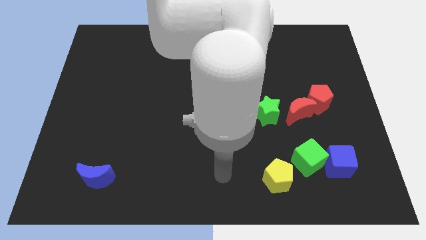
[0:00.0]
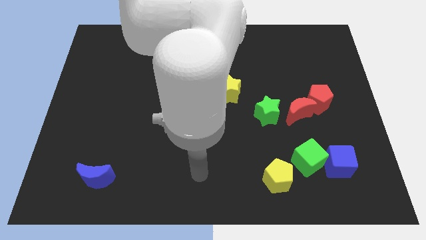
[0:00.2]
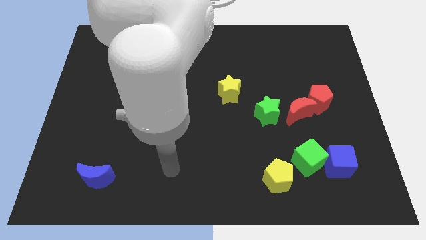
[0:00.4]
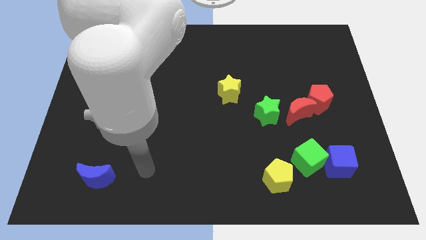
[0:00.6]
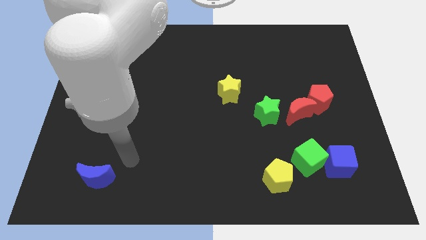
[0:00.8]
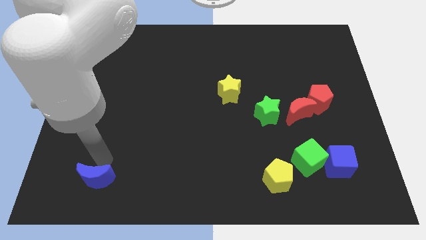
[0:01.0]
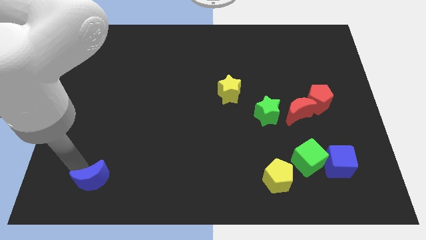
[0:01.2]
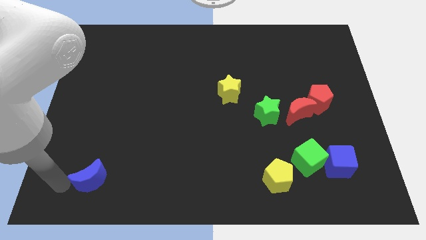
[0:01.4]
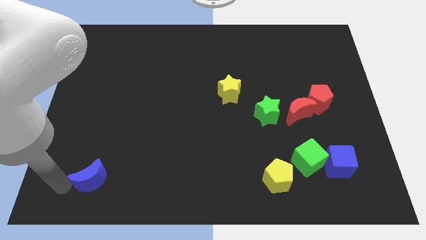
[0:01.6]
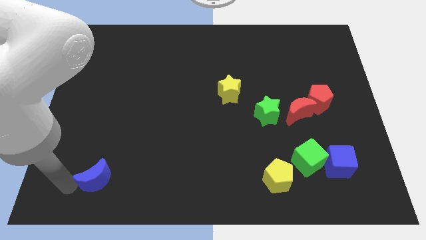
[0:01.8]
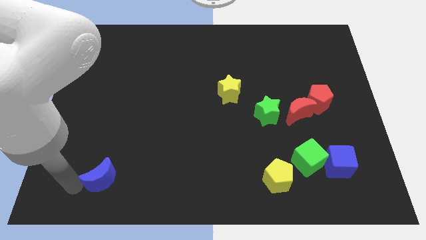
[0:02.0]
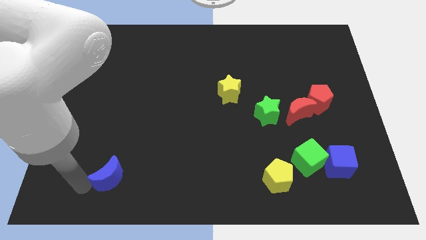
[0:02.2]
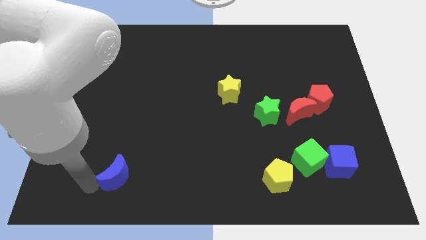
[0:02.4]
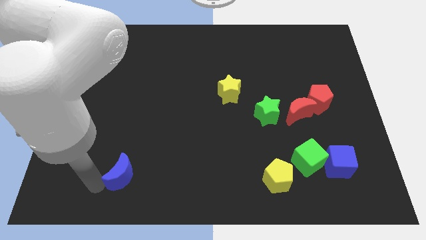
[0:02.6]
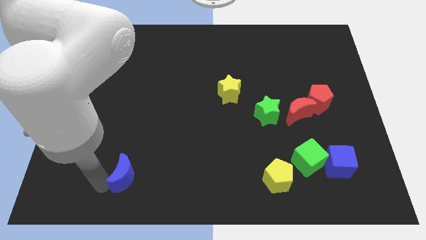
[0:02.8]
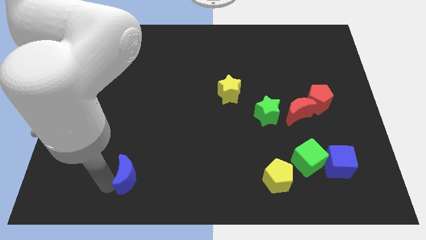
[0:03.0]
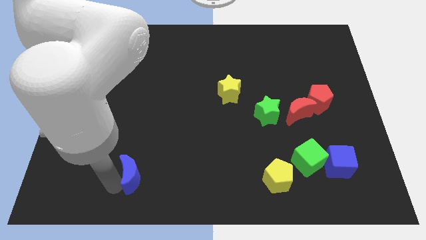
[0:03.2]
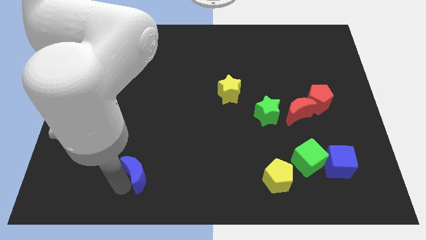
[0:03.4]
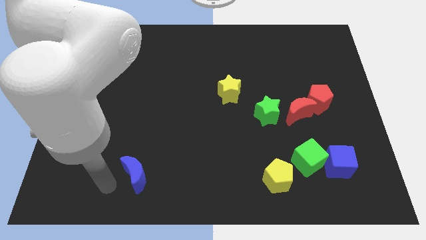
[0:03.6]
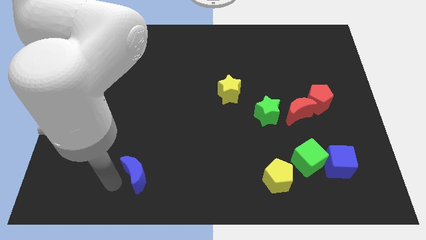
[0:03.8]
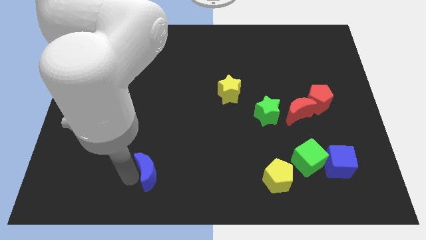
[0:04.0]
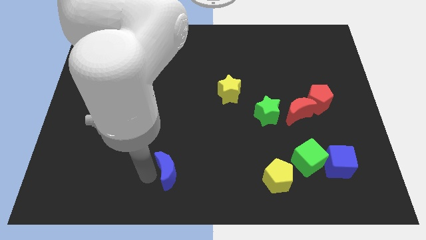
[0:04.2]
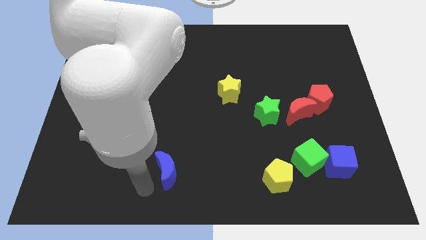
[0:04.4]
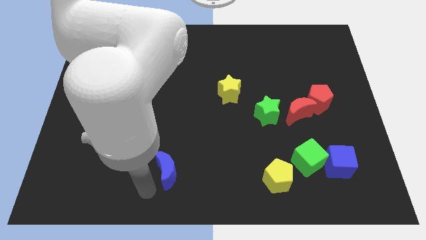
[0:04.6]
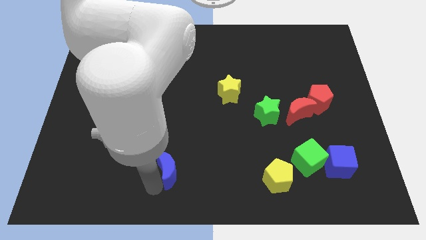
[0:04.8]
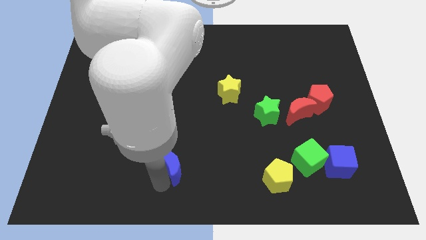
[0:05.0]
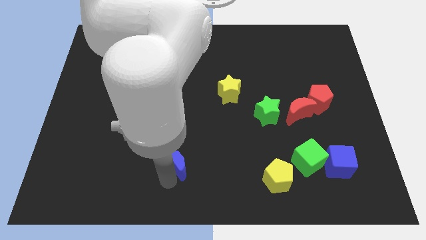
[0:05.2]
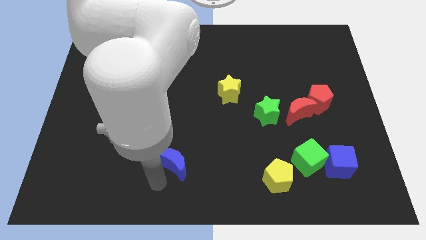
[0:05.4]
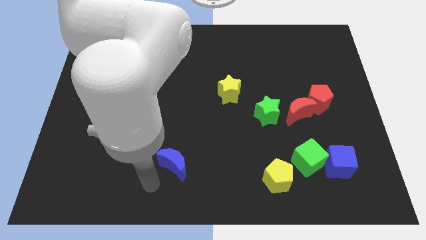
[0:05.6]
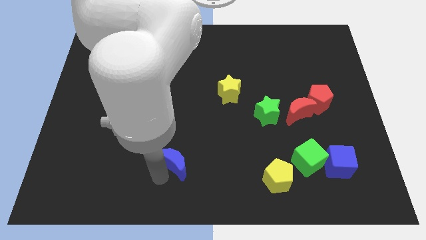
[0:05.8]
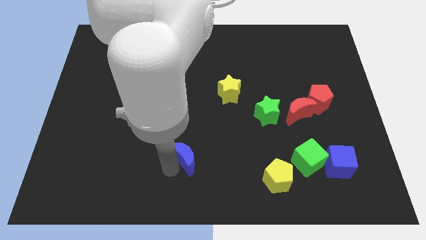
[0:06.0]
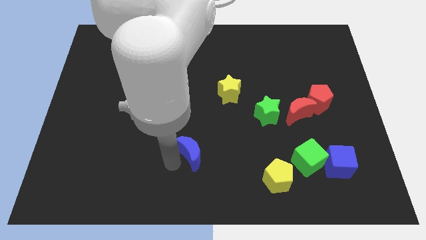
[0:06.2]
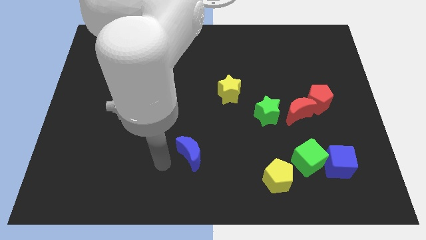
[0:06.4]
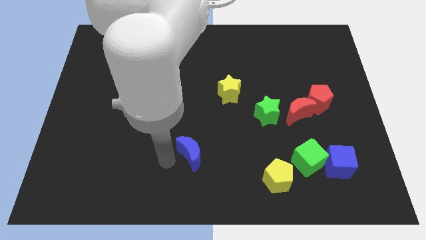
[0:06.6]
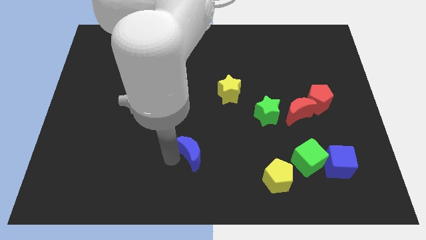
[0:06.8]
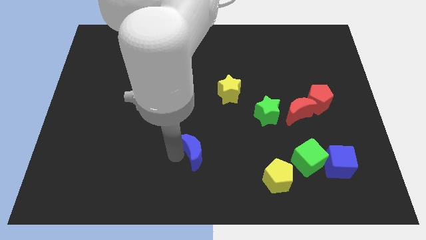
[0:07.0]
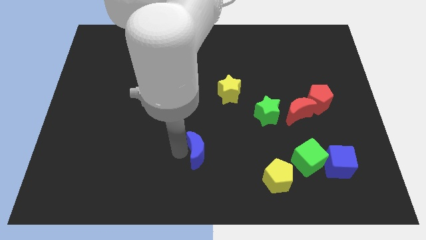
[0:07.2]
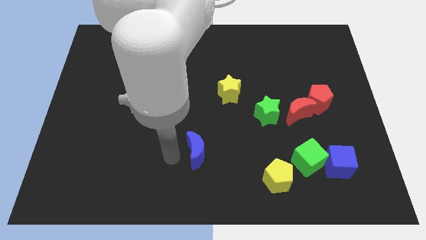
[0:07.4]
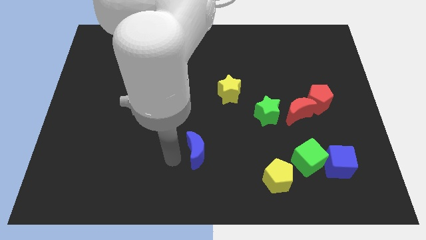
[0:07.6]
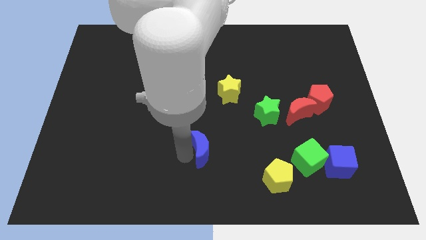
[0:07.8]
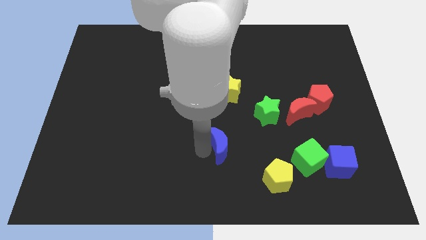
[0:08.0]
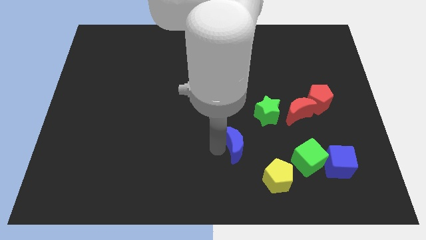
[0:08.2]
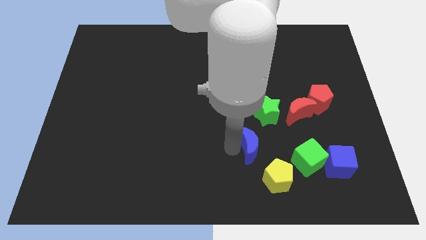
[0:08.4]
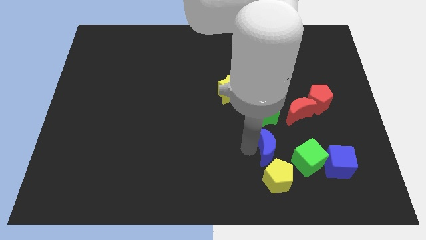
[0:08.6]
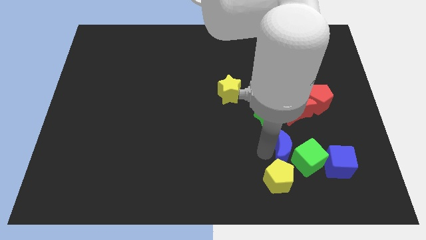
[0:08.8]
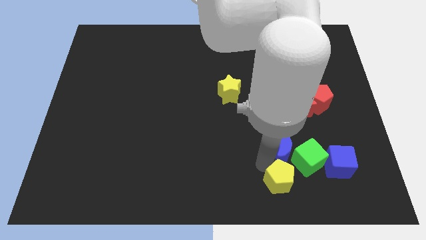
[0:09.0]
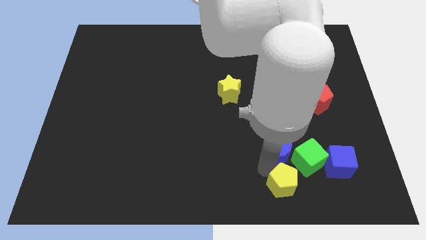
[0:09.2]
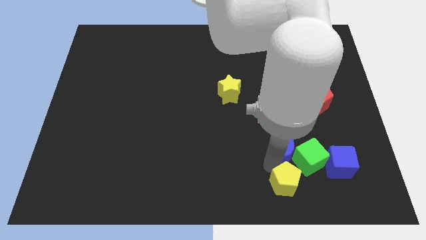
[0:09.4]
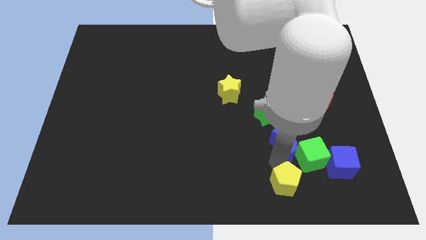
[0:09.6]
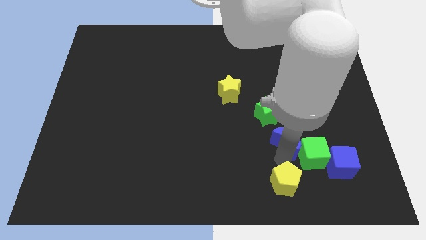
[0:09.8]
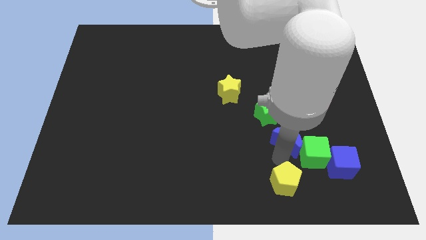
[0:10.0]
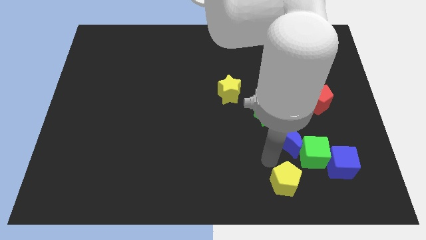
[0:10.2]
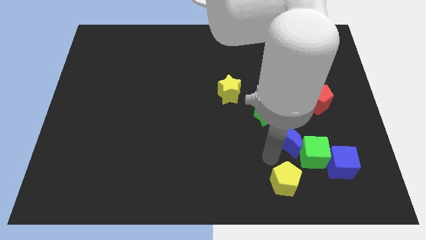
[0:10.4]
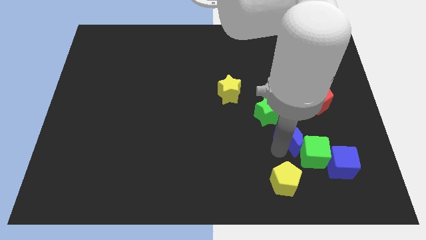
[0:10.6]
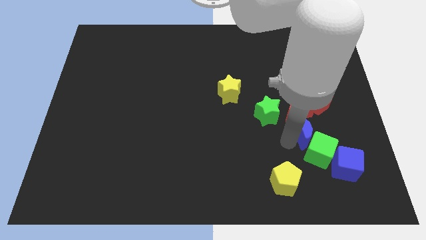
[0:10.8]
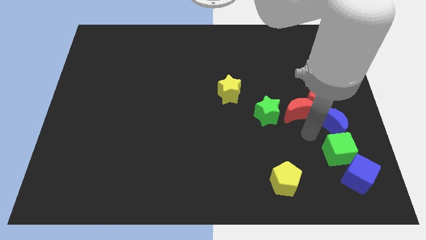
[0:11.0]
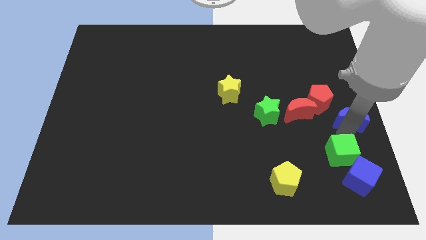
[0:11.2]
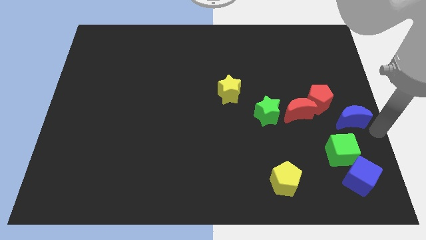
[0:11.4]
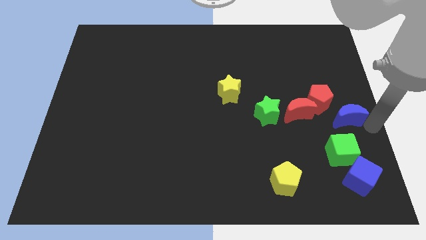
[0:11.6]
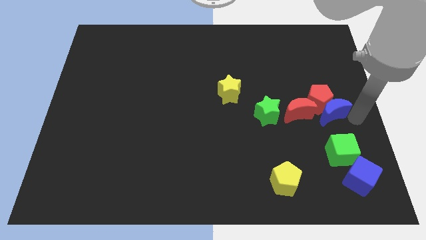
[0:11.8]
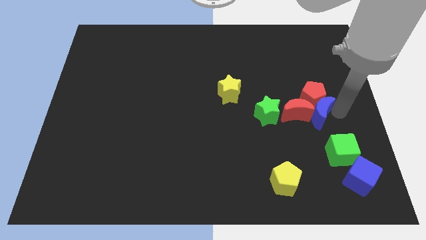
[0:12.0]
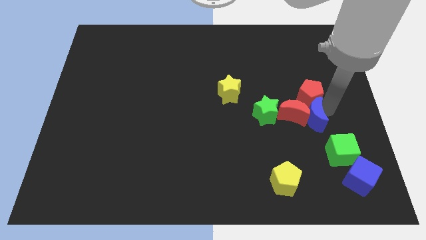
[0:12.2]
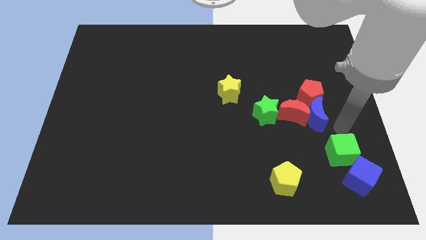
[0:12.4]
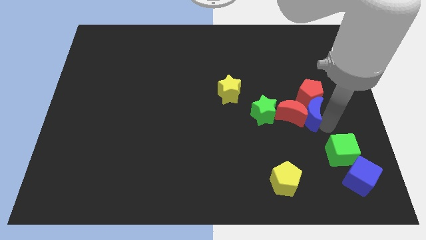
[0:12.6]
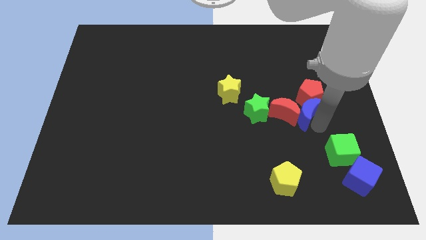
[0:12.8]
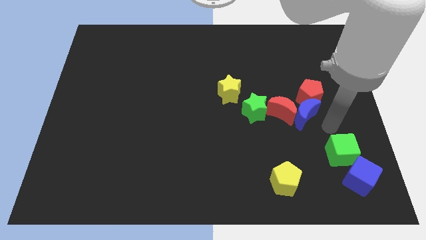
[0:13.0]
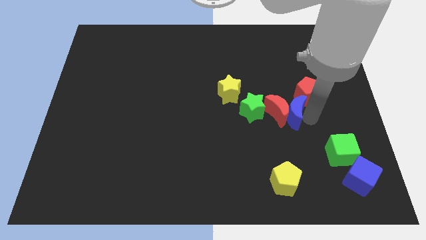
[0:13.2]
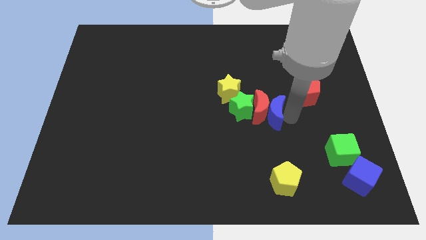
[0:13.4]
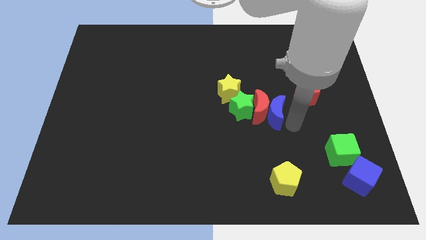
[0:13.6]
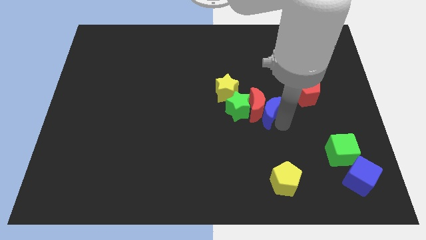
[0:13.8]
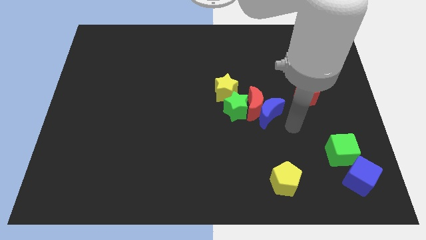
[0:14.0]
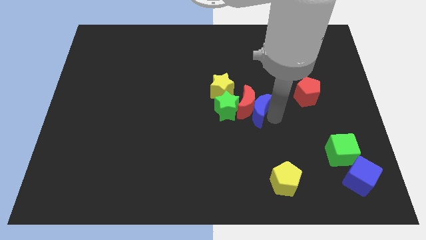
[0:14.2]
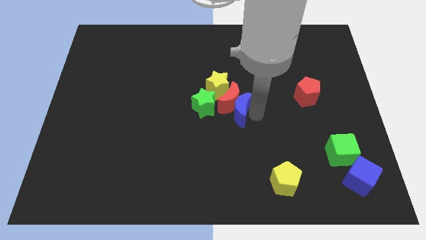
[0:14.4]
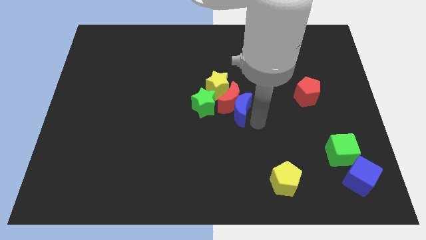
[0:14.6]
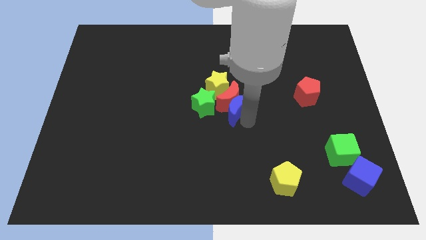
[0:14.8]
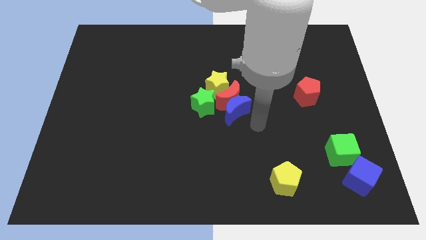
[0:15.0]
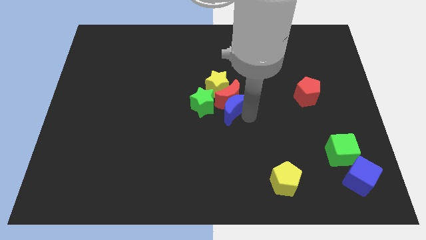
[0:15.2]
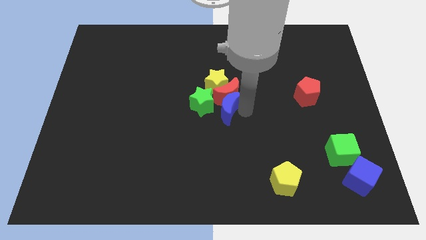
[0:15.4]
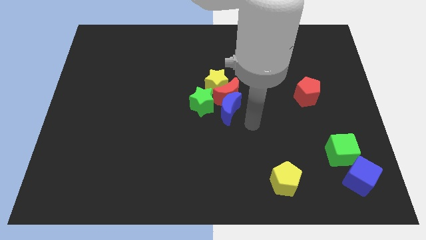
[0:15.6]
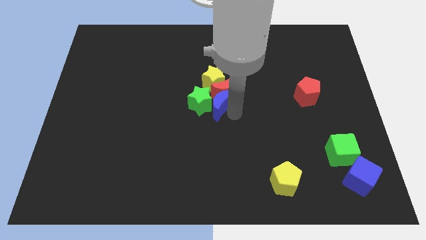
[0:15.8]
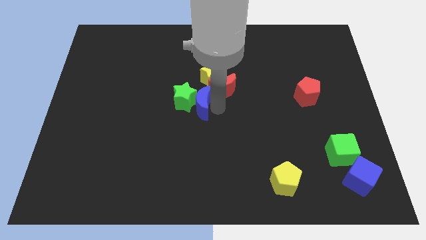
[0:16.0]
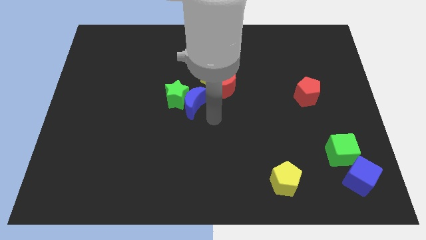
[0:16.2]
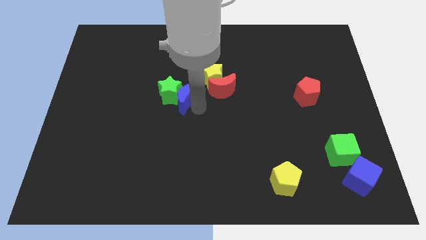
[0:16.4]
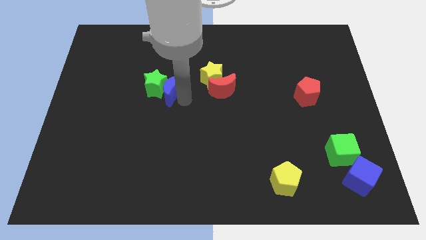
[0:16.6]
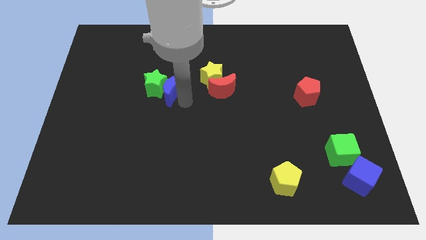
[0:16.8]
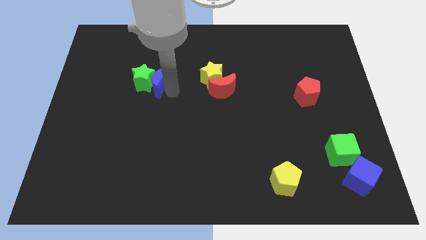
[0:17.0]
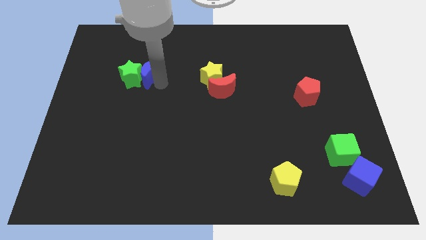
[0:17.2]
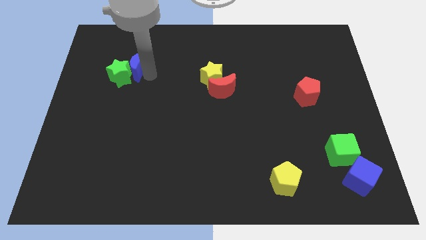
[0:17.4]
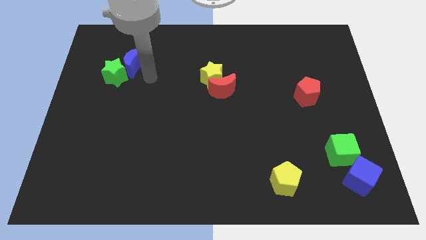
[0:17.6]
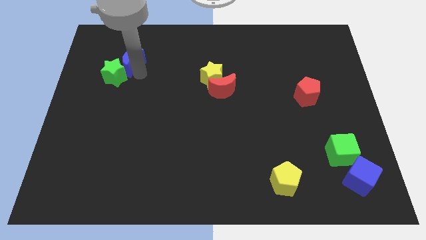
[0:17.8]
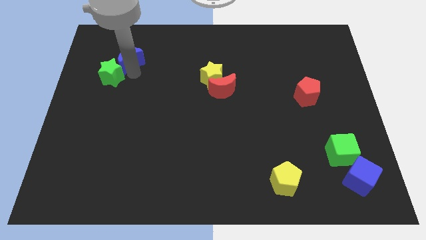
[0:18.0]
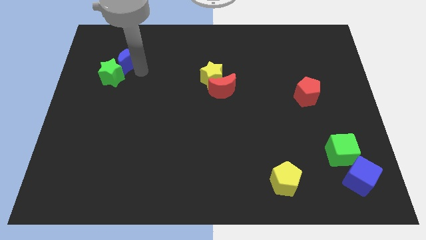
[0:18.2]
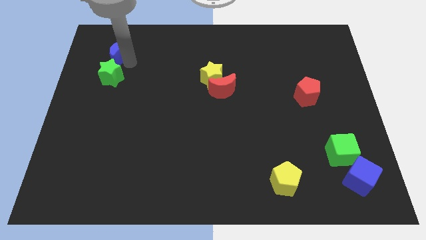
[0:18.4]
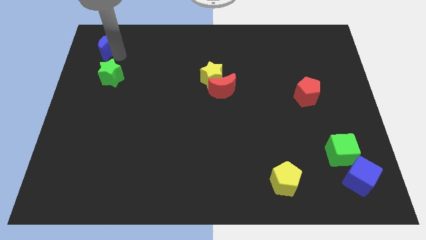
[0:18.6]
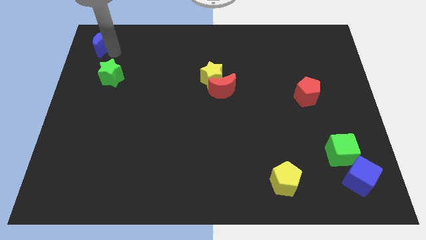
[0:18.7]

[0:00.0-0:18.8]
slide the blue moon to the top left of the board
